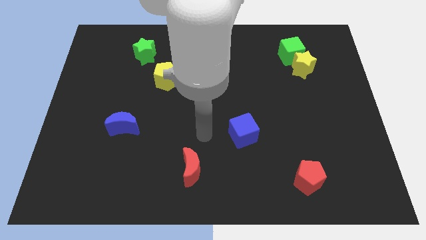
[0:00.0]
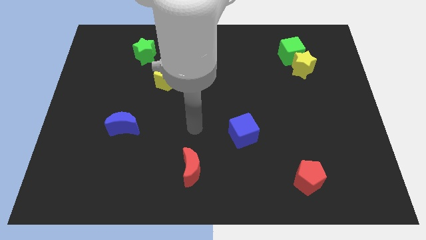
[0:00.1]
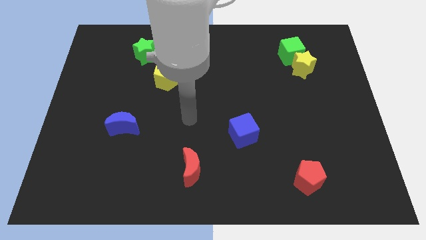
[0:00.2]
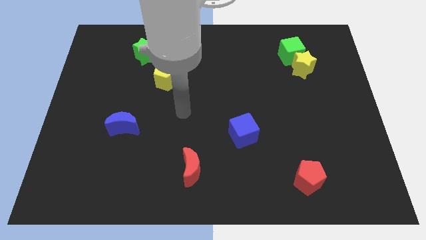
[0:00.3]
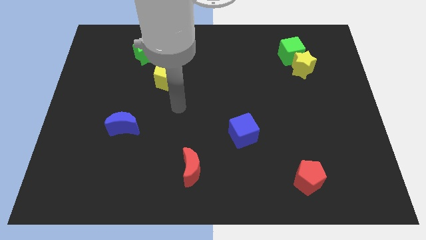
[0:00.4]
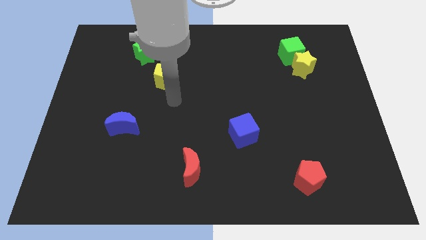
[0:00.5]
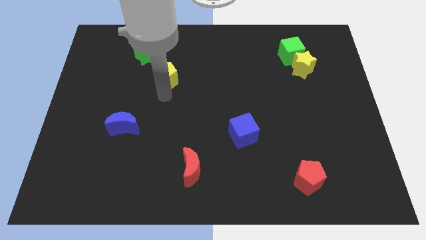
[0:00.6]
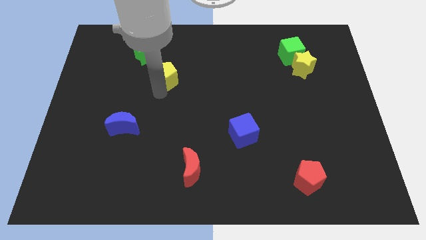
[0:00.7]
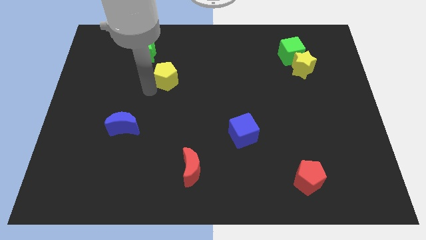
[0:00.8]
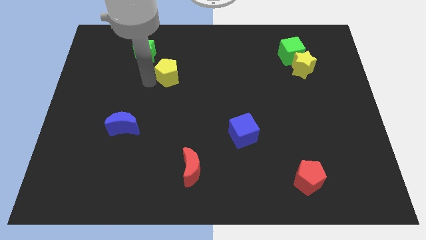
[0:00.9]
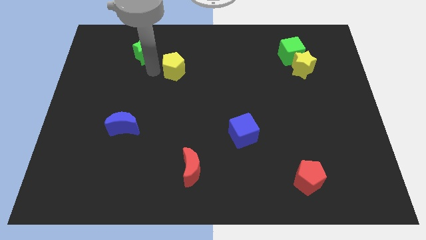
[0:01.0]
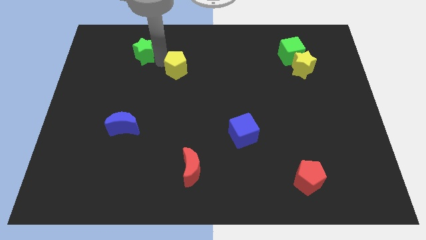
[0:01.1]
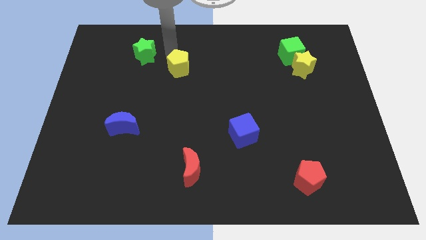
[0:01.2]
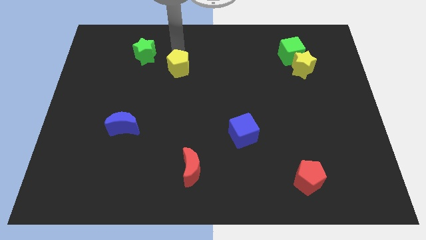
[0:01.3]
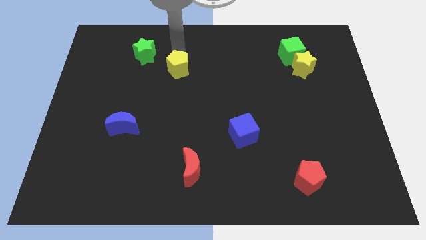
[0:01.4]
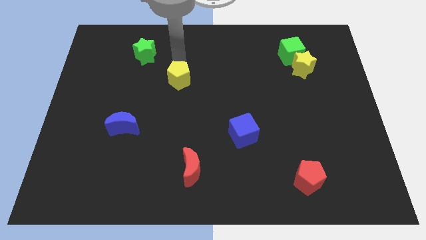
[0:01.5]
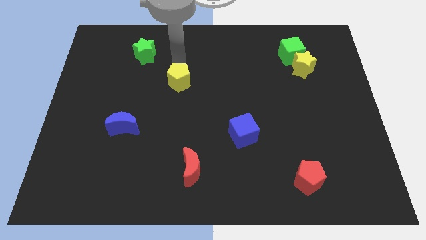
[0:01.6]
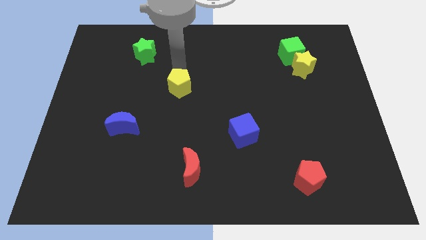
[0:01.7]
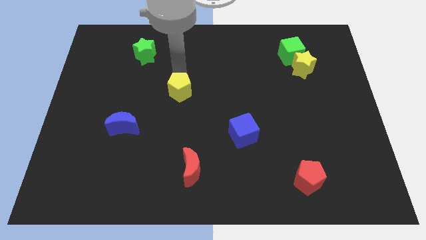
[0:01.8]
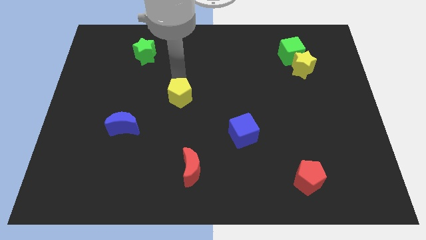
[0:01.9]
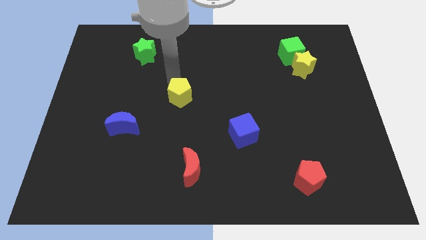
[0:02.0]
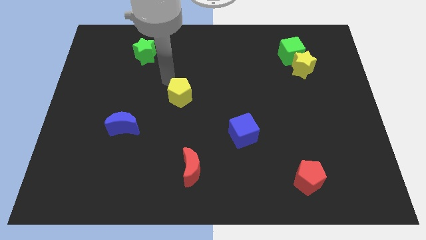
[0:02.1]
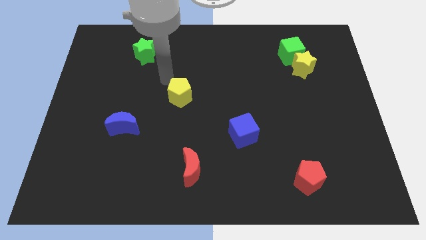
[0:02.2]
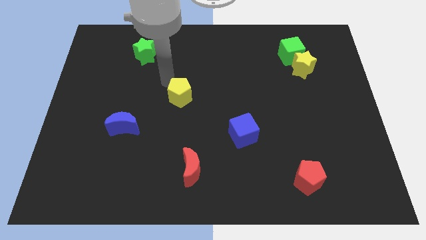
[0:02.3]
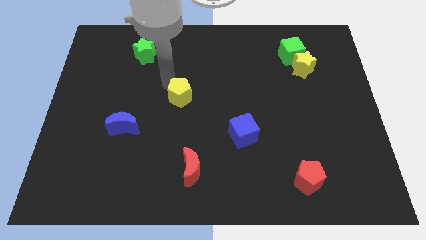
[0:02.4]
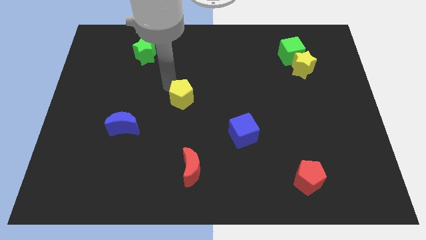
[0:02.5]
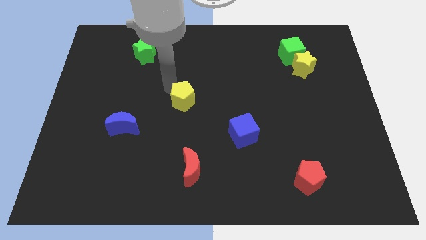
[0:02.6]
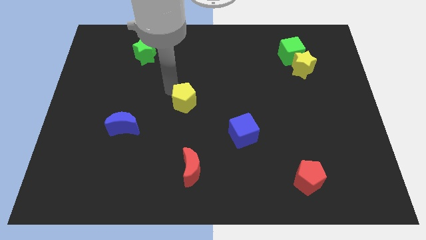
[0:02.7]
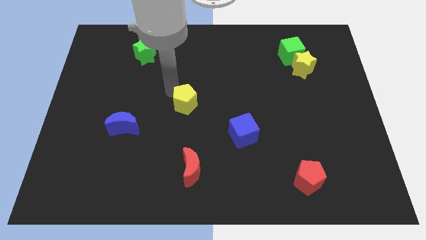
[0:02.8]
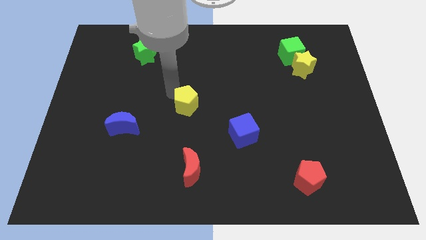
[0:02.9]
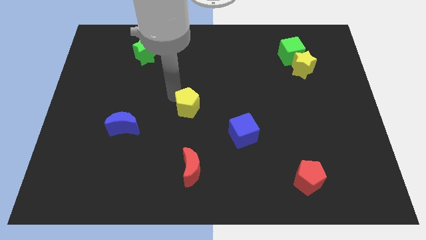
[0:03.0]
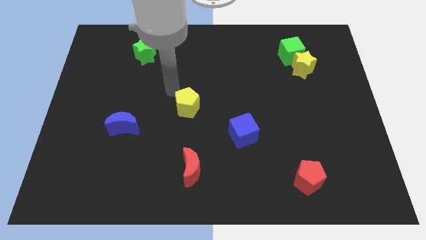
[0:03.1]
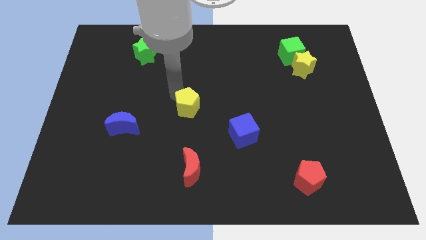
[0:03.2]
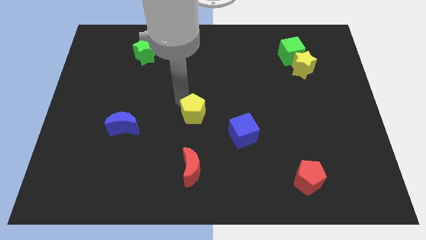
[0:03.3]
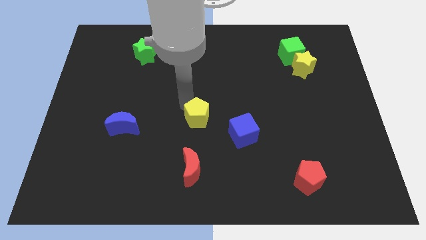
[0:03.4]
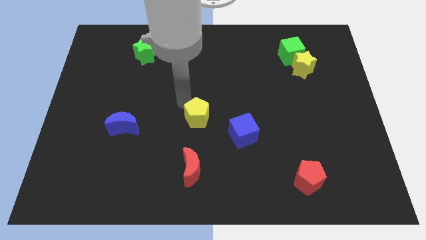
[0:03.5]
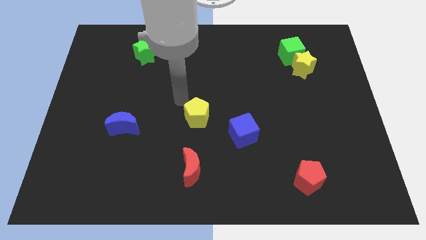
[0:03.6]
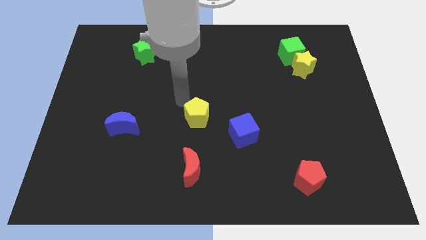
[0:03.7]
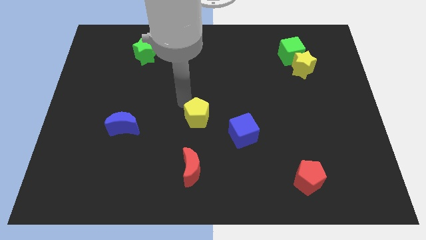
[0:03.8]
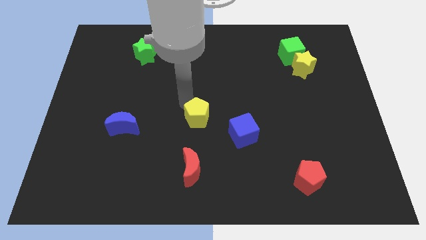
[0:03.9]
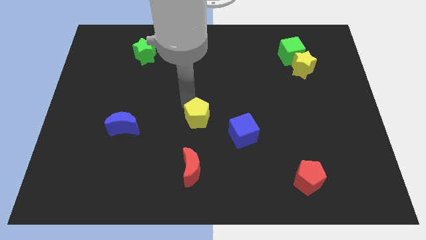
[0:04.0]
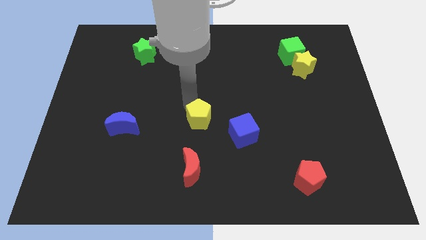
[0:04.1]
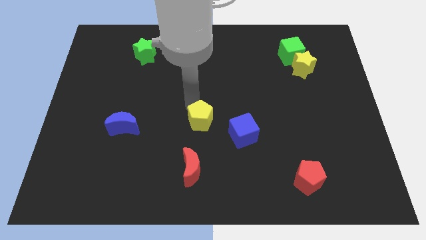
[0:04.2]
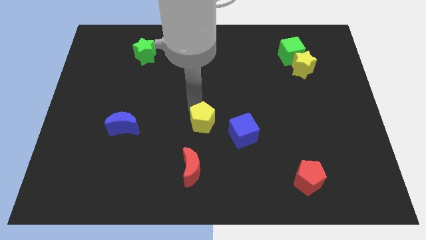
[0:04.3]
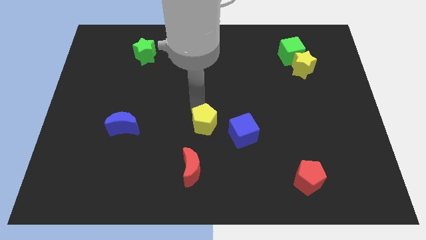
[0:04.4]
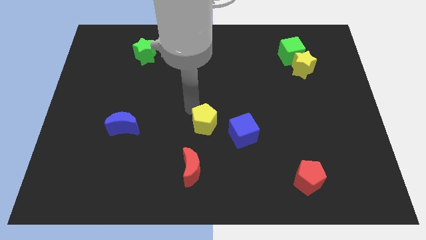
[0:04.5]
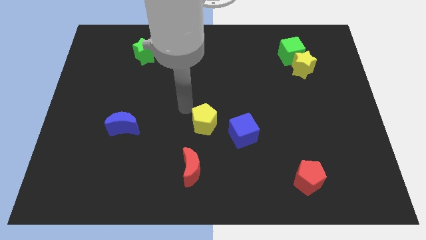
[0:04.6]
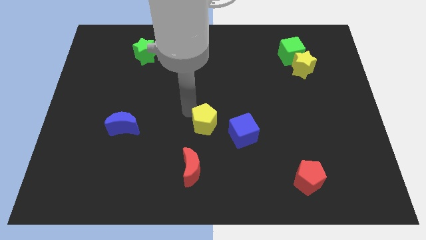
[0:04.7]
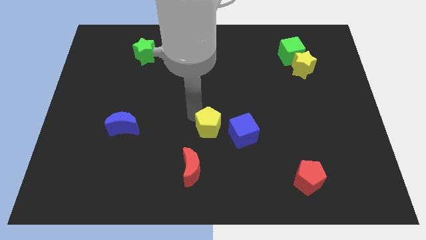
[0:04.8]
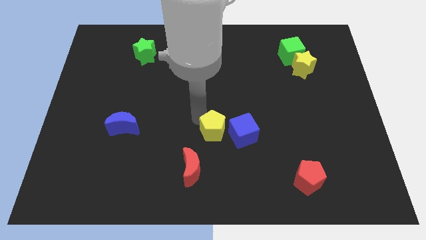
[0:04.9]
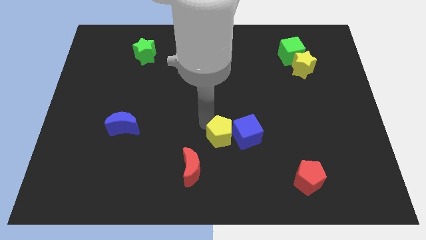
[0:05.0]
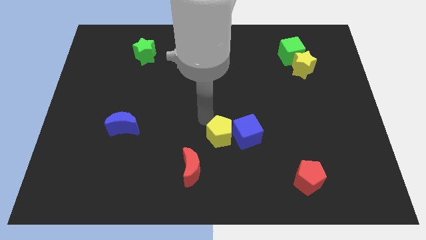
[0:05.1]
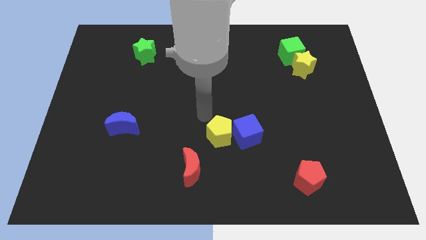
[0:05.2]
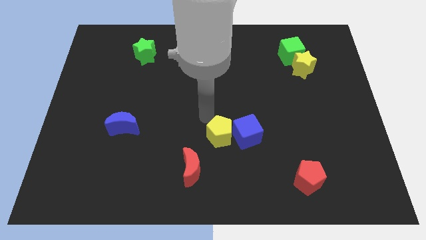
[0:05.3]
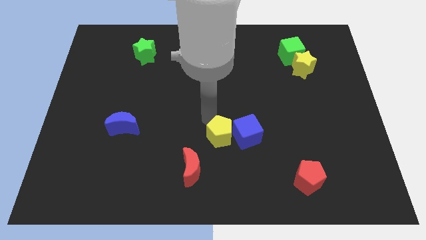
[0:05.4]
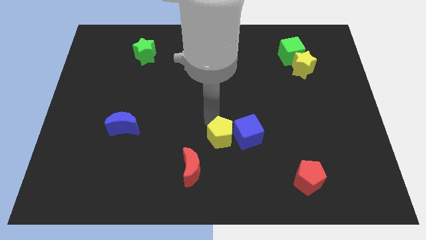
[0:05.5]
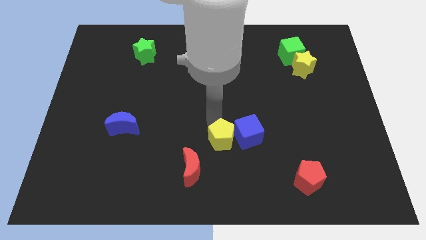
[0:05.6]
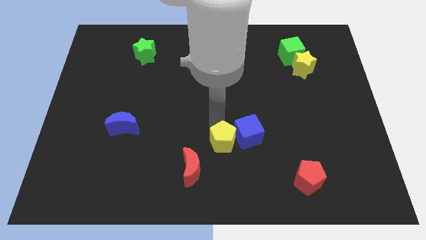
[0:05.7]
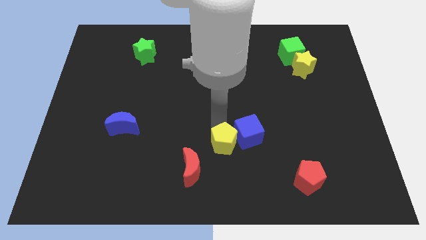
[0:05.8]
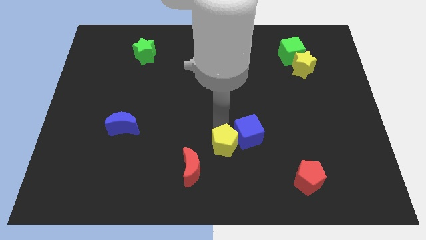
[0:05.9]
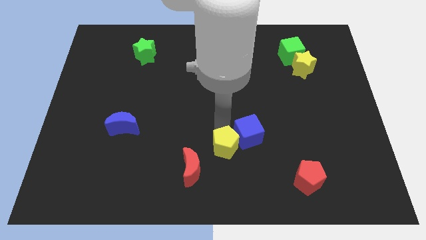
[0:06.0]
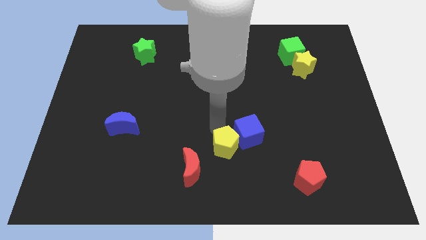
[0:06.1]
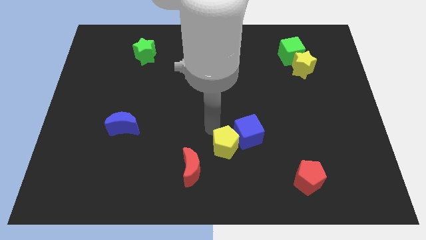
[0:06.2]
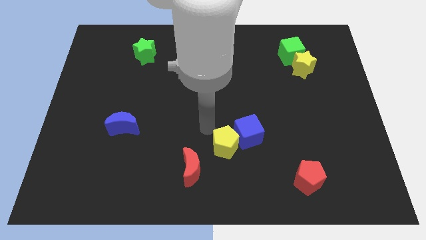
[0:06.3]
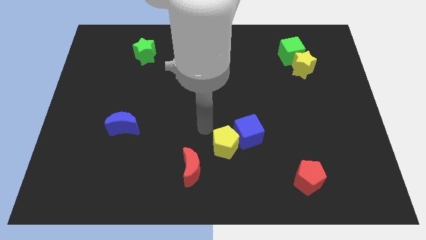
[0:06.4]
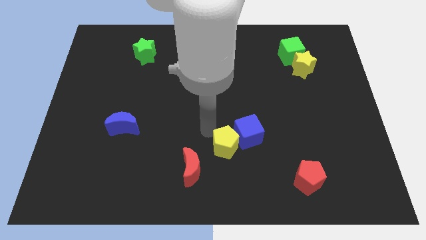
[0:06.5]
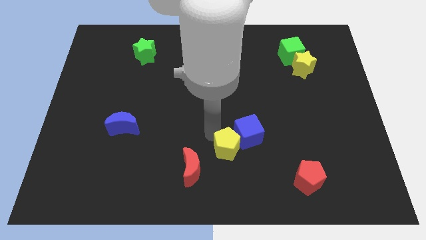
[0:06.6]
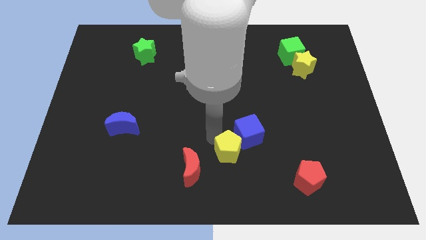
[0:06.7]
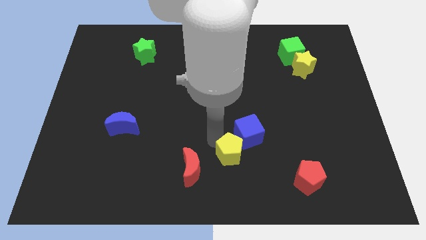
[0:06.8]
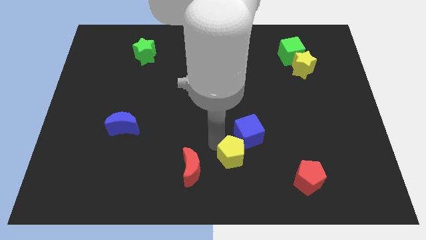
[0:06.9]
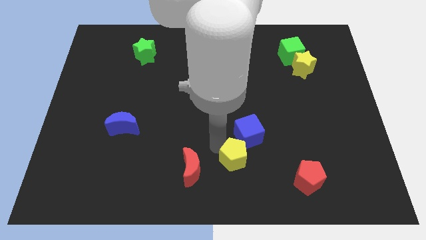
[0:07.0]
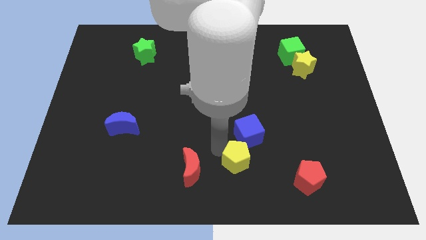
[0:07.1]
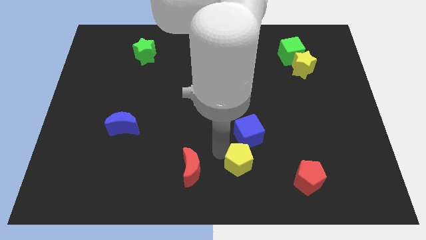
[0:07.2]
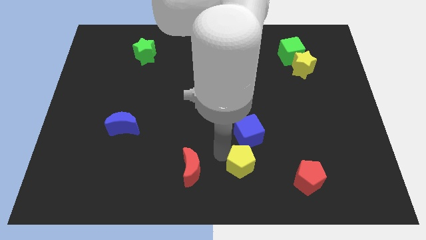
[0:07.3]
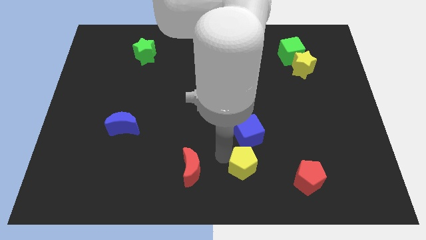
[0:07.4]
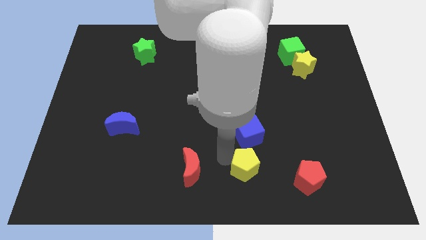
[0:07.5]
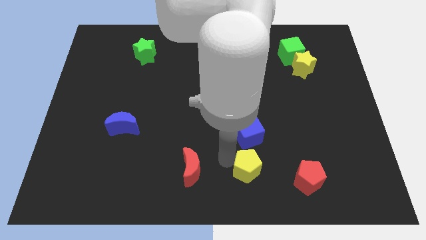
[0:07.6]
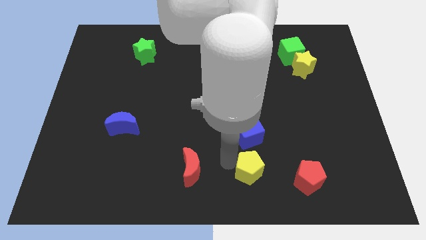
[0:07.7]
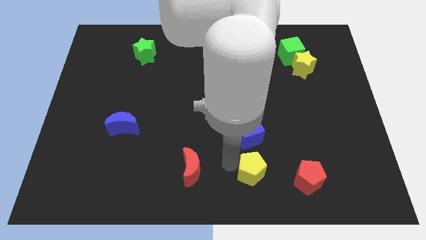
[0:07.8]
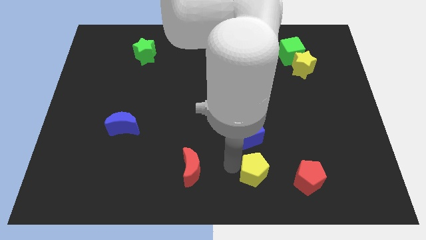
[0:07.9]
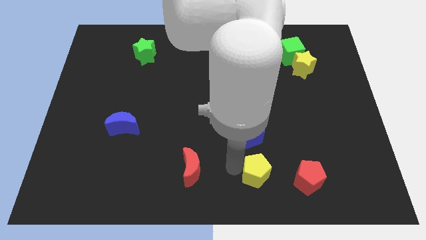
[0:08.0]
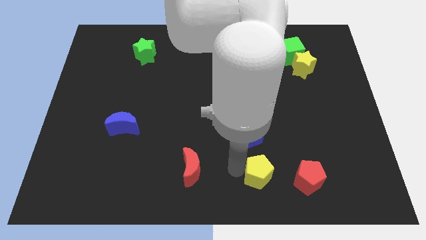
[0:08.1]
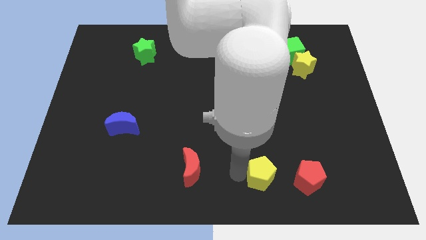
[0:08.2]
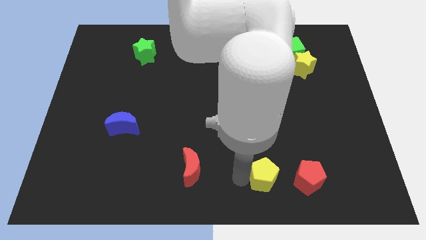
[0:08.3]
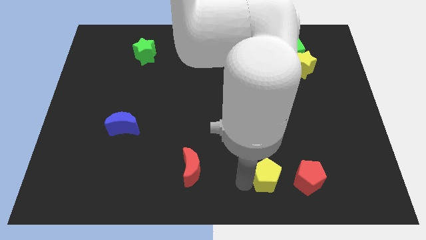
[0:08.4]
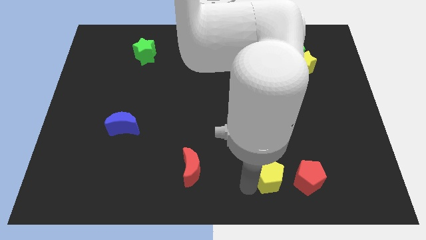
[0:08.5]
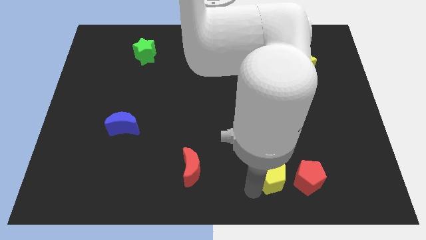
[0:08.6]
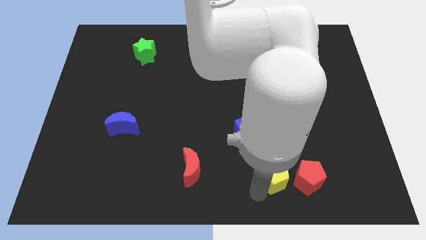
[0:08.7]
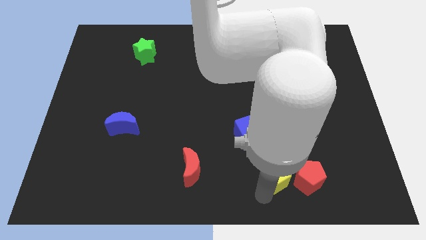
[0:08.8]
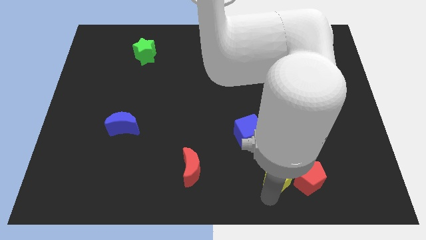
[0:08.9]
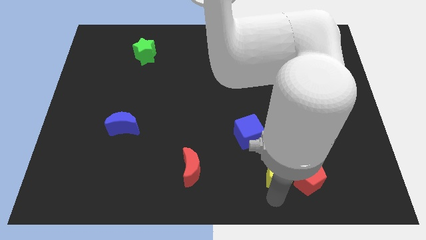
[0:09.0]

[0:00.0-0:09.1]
push the yellow pentagon towards the red pentagon
